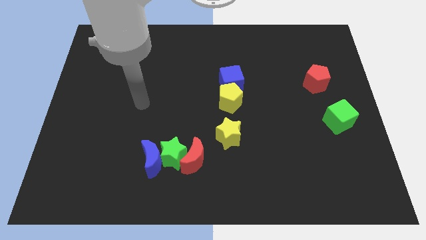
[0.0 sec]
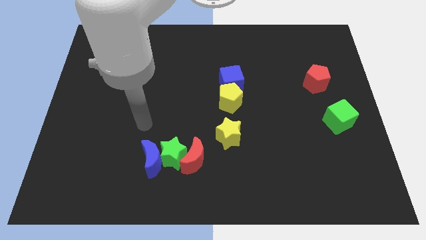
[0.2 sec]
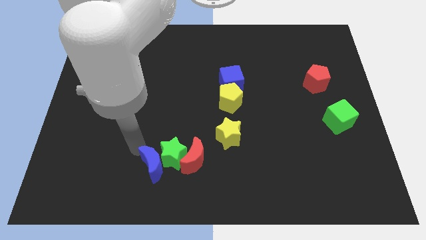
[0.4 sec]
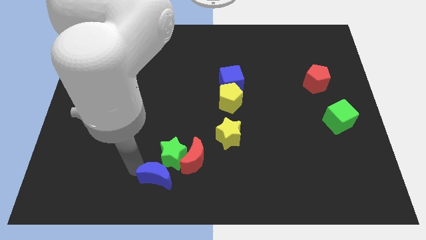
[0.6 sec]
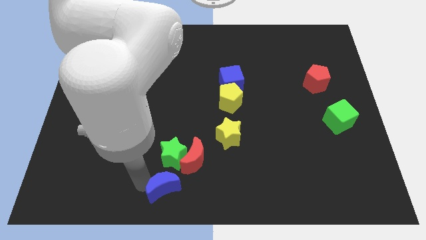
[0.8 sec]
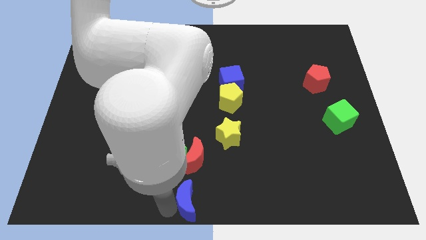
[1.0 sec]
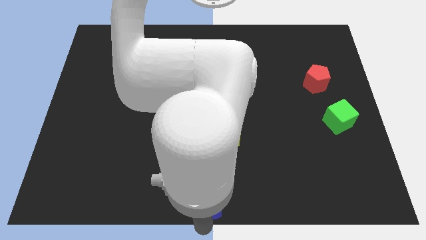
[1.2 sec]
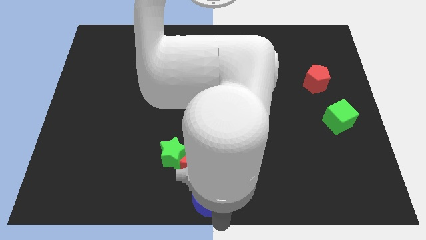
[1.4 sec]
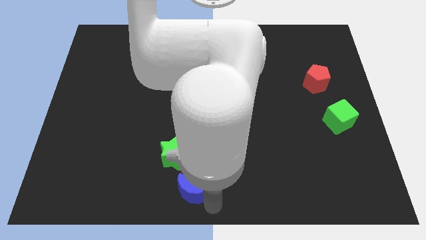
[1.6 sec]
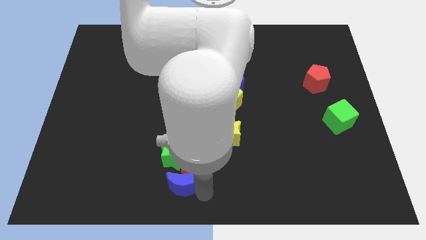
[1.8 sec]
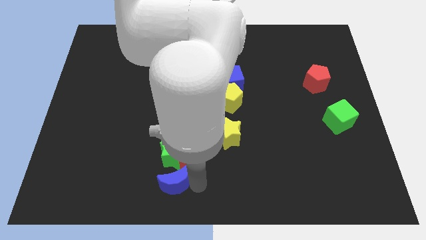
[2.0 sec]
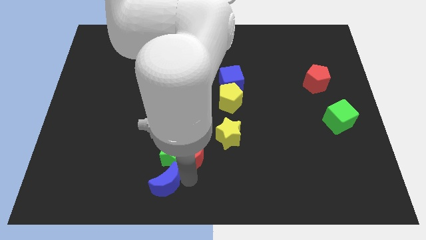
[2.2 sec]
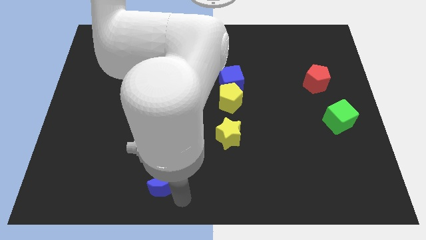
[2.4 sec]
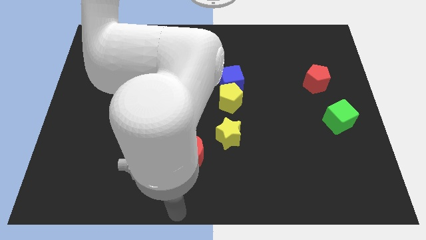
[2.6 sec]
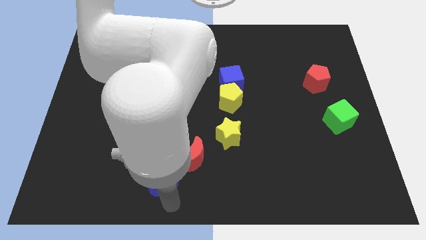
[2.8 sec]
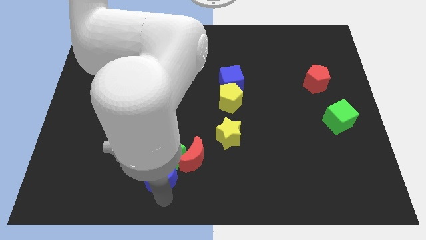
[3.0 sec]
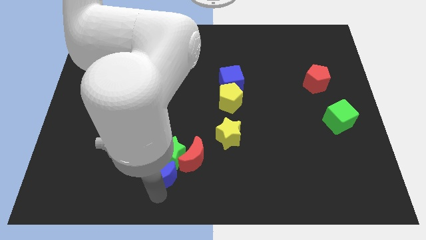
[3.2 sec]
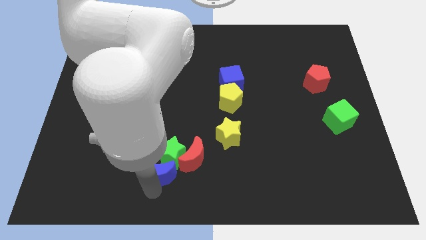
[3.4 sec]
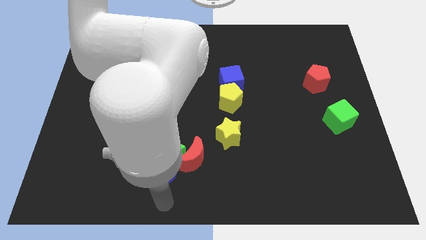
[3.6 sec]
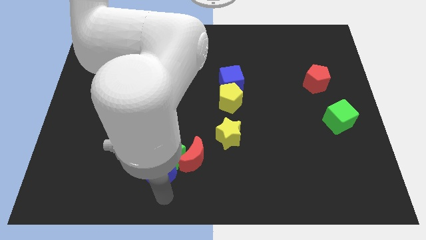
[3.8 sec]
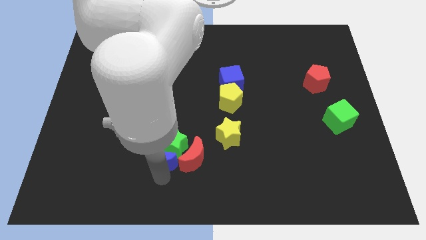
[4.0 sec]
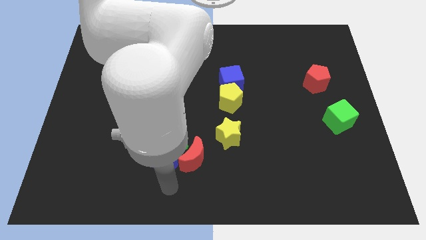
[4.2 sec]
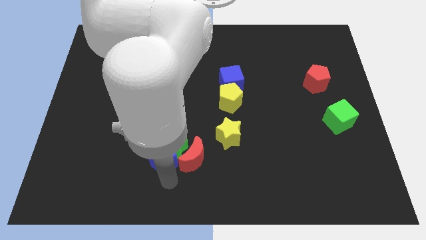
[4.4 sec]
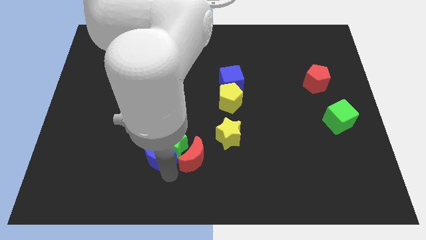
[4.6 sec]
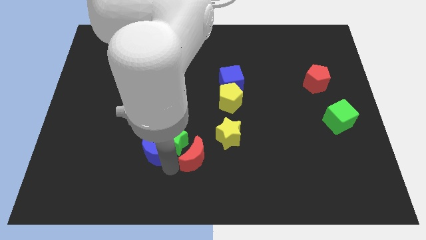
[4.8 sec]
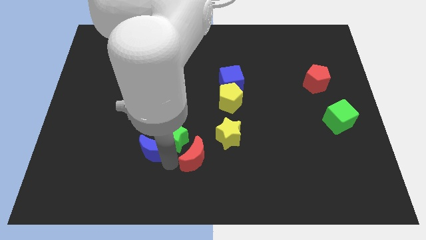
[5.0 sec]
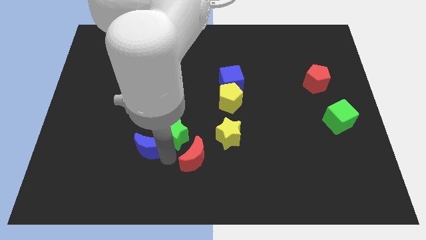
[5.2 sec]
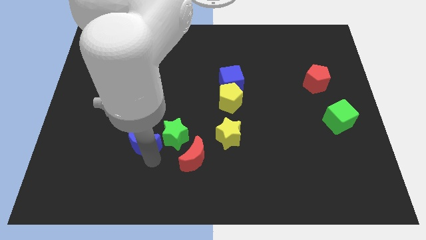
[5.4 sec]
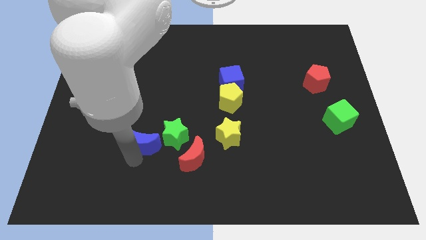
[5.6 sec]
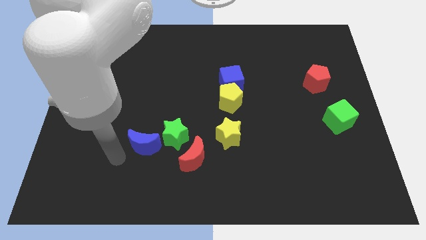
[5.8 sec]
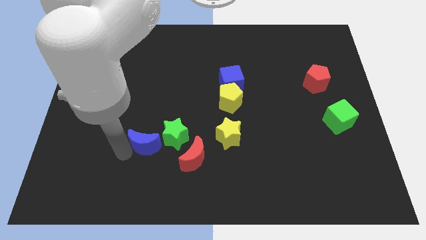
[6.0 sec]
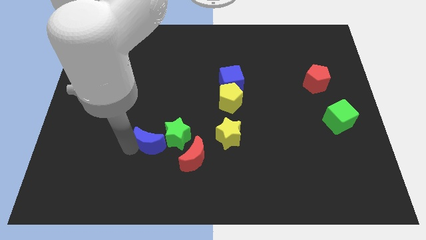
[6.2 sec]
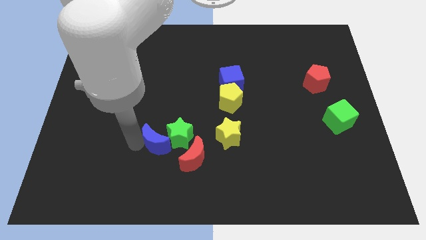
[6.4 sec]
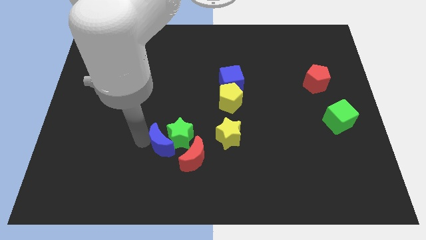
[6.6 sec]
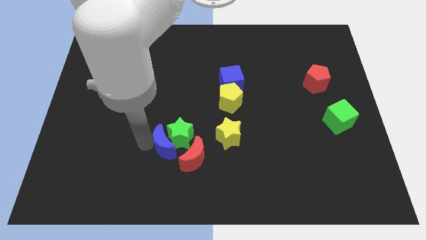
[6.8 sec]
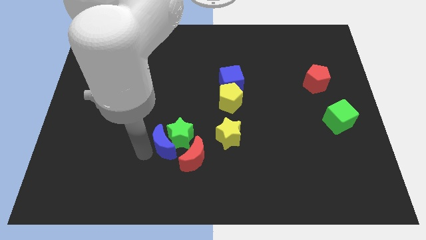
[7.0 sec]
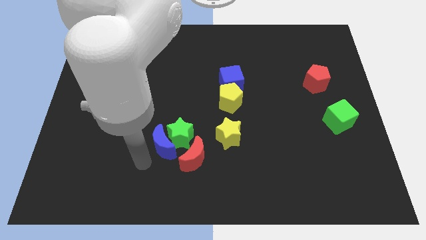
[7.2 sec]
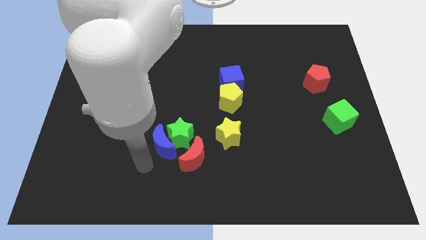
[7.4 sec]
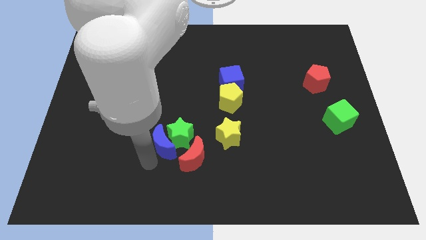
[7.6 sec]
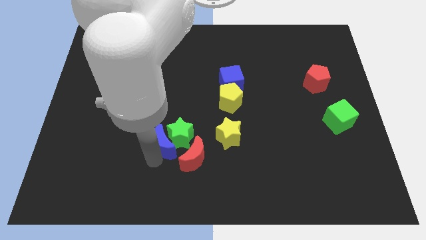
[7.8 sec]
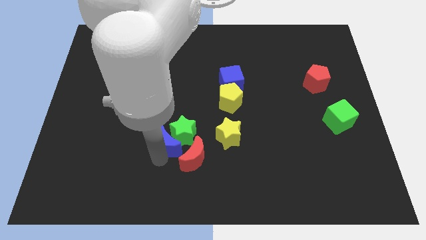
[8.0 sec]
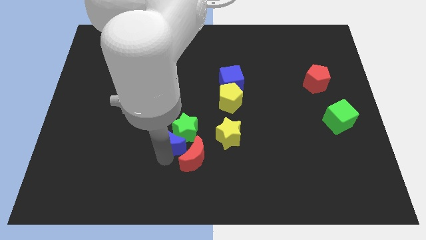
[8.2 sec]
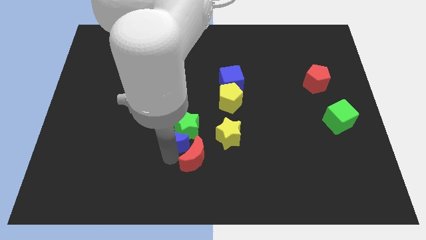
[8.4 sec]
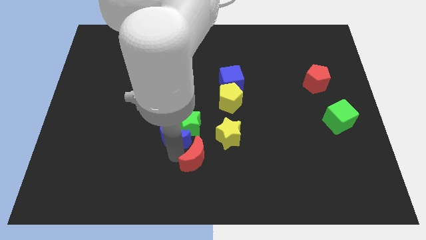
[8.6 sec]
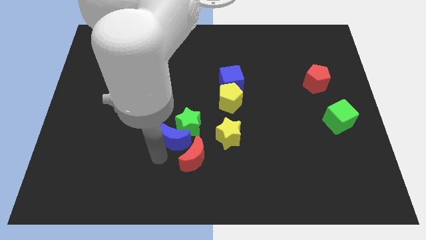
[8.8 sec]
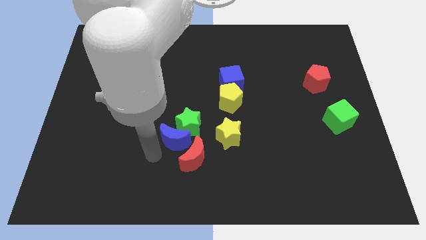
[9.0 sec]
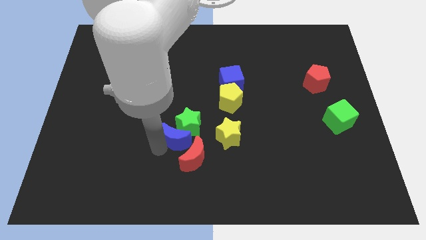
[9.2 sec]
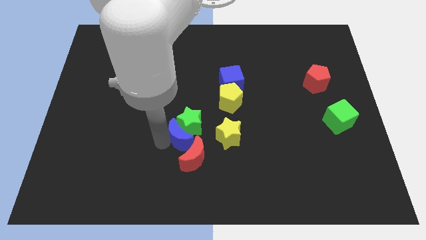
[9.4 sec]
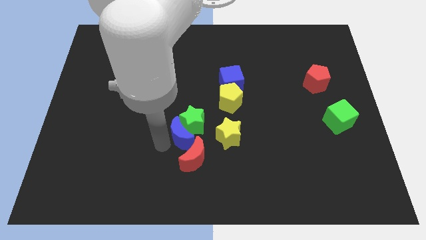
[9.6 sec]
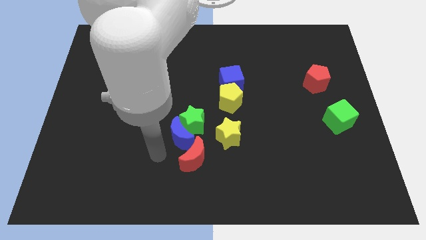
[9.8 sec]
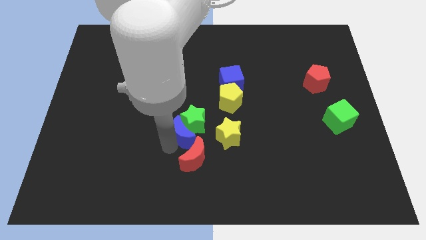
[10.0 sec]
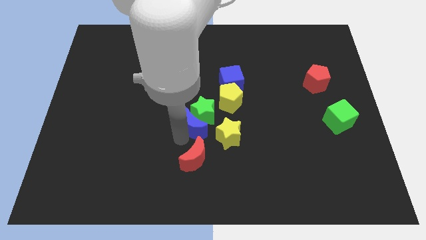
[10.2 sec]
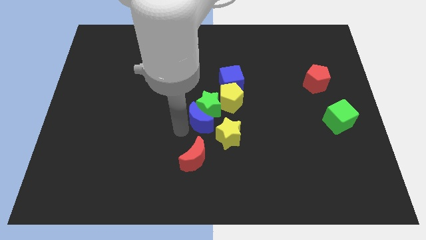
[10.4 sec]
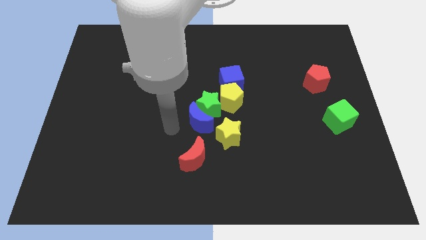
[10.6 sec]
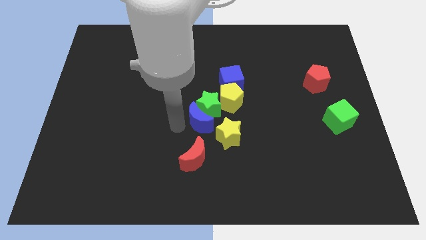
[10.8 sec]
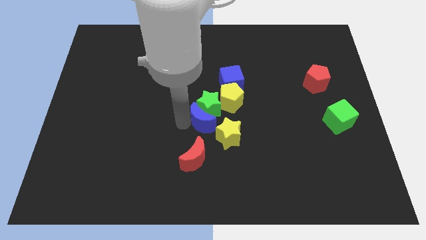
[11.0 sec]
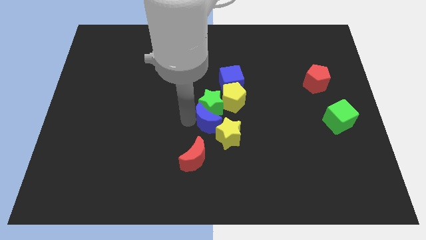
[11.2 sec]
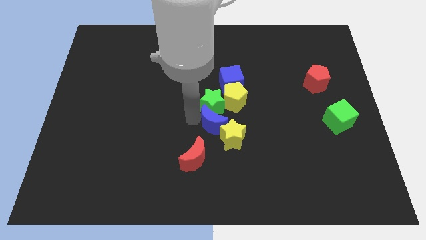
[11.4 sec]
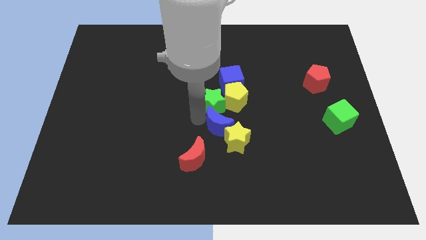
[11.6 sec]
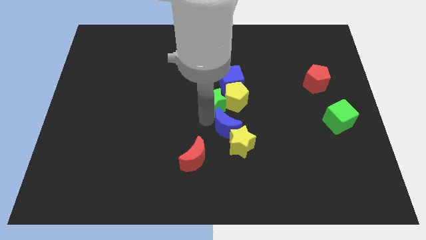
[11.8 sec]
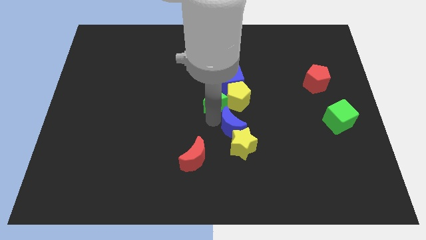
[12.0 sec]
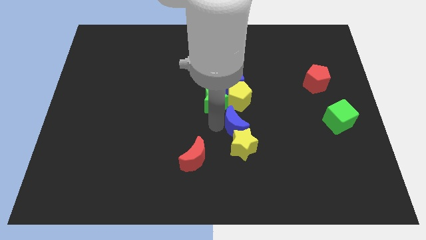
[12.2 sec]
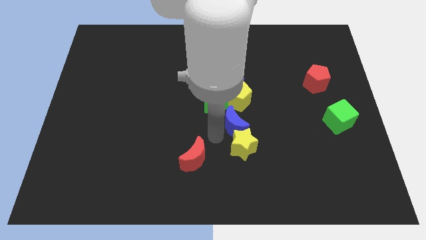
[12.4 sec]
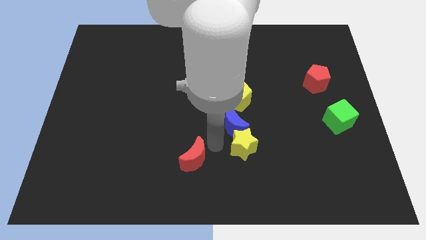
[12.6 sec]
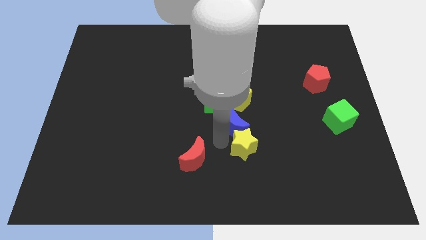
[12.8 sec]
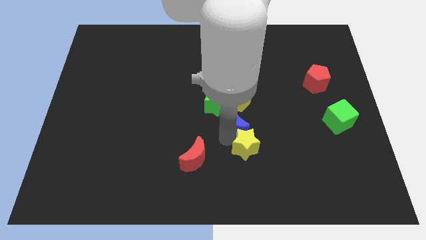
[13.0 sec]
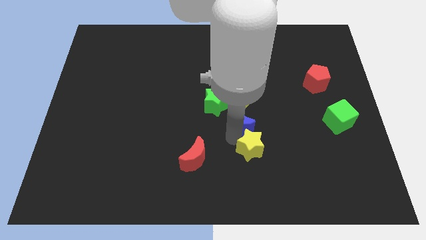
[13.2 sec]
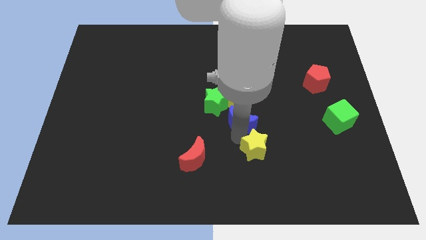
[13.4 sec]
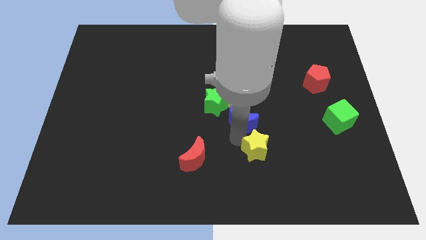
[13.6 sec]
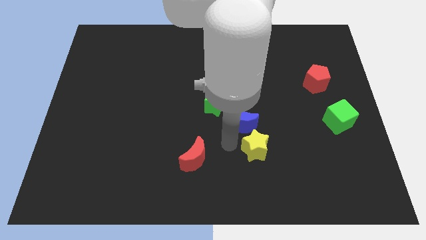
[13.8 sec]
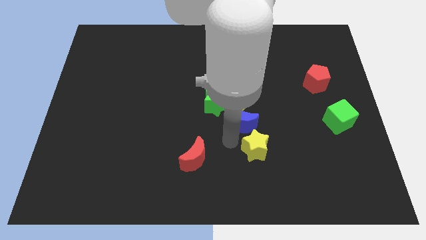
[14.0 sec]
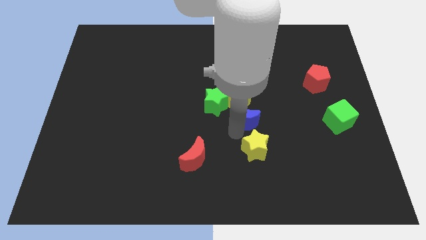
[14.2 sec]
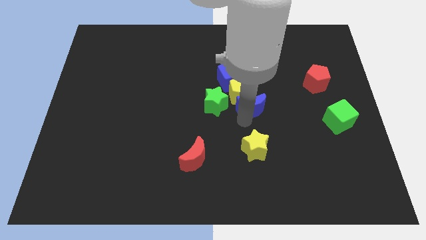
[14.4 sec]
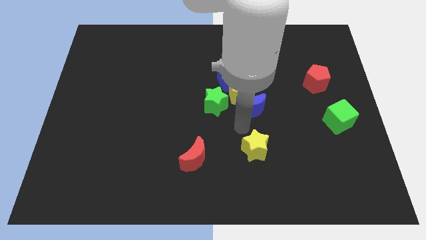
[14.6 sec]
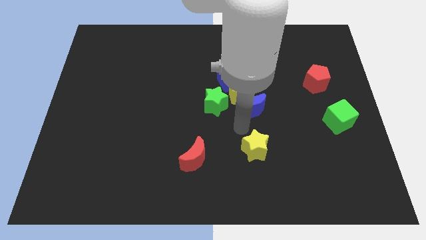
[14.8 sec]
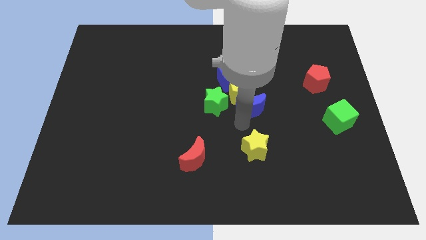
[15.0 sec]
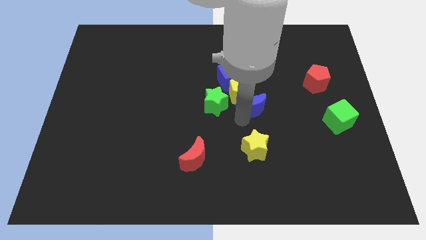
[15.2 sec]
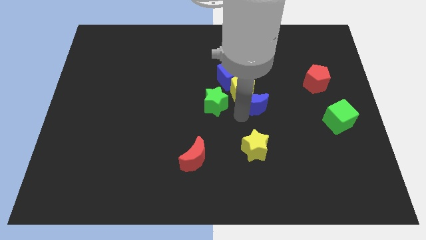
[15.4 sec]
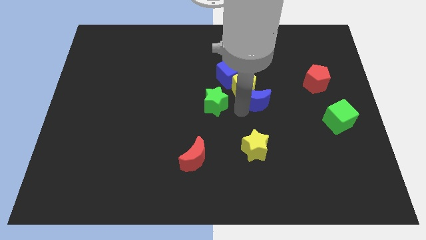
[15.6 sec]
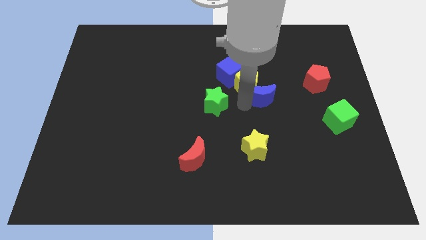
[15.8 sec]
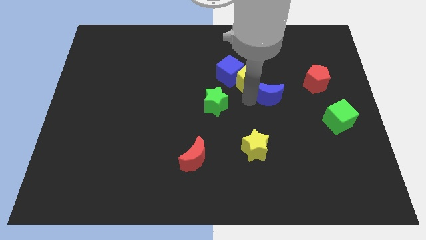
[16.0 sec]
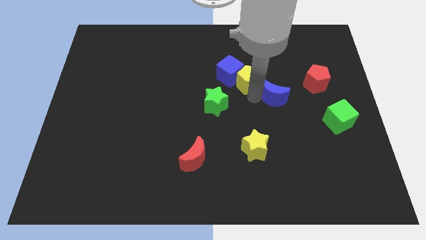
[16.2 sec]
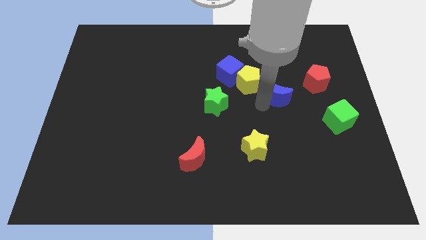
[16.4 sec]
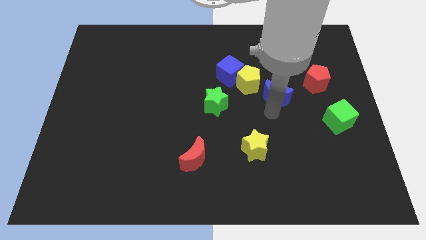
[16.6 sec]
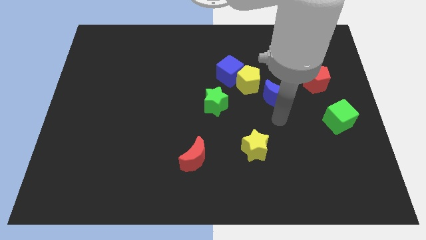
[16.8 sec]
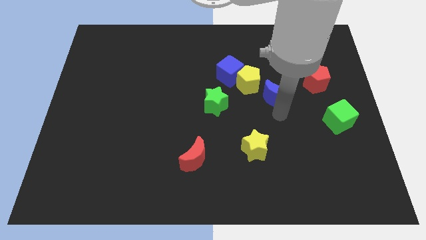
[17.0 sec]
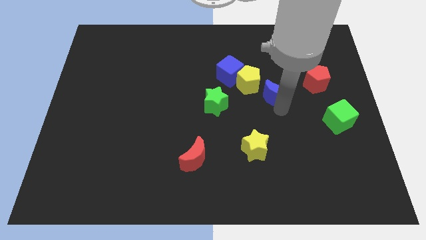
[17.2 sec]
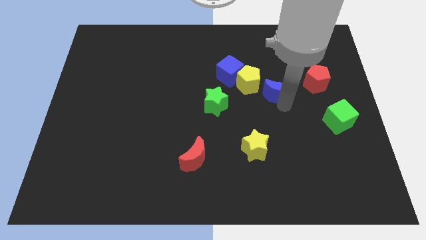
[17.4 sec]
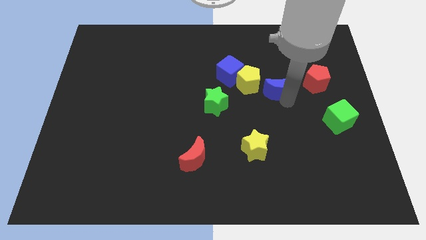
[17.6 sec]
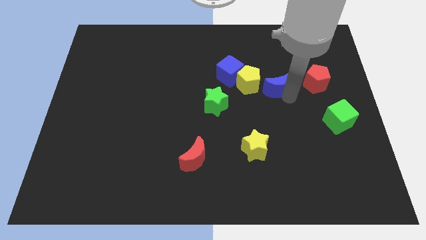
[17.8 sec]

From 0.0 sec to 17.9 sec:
move the blue moon to the right side of the blue cube
